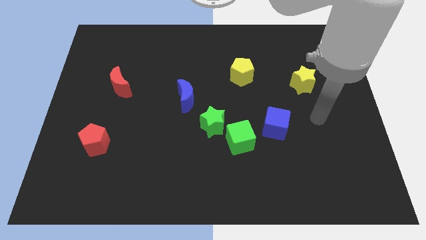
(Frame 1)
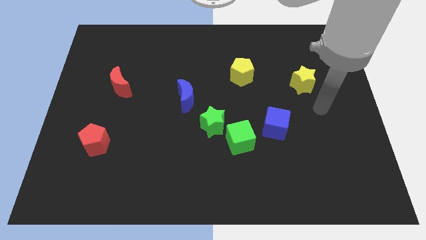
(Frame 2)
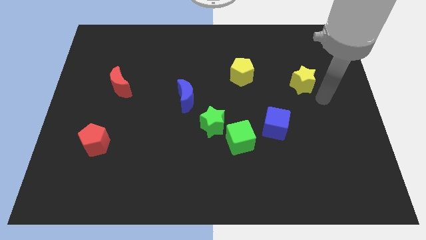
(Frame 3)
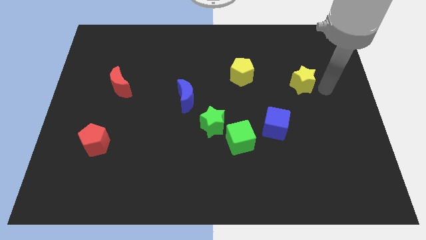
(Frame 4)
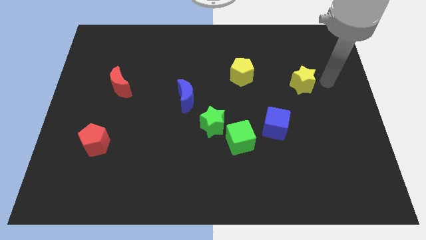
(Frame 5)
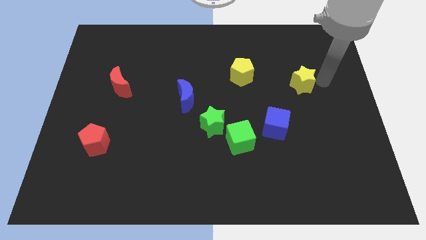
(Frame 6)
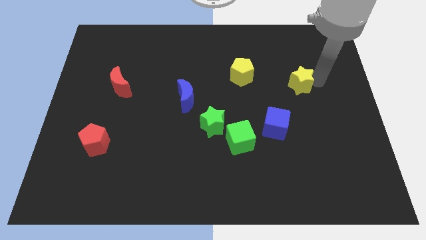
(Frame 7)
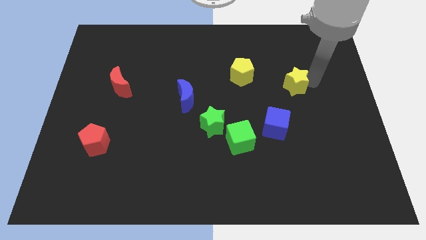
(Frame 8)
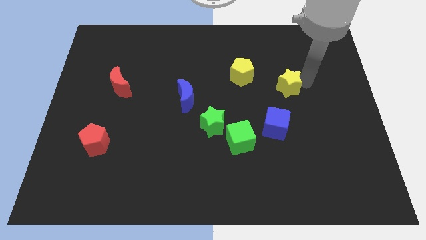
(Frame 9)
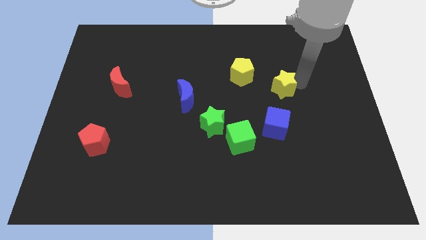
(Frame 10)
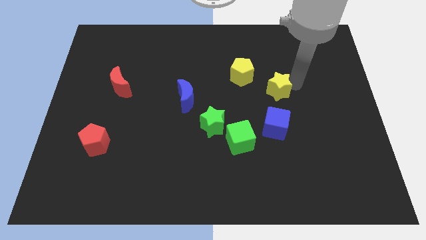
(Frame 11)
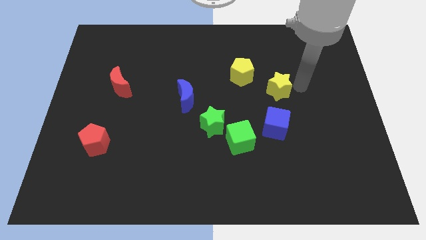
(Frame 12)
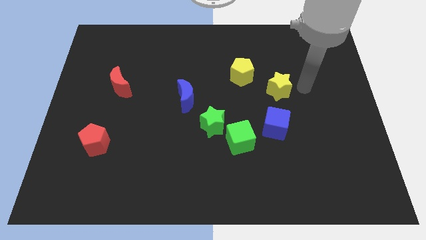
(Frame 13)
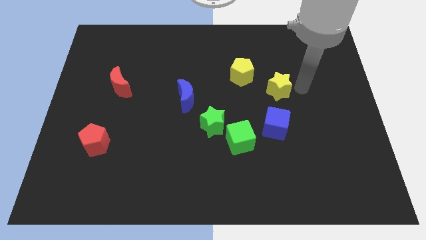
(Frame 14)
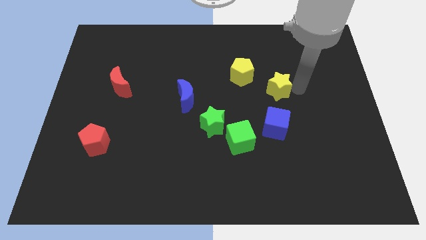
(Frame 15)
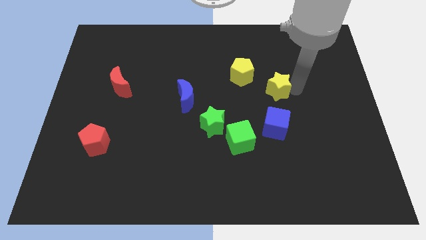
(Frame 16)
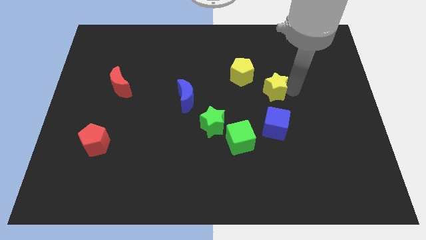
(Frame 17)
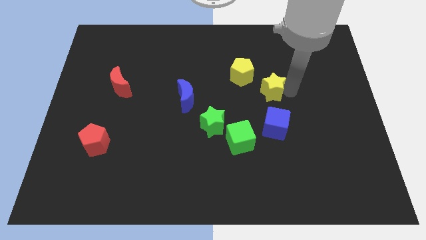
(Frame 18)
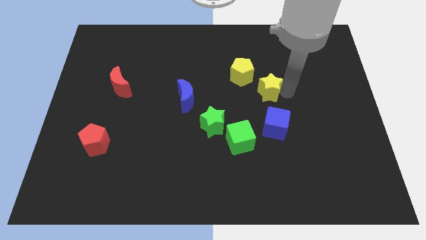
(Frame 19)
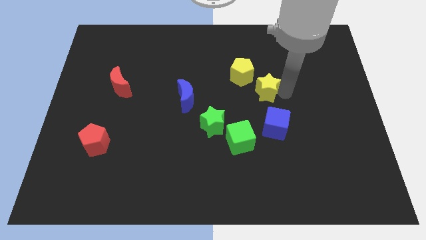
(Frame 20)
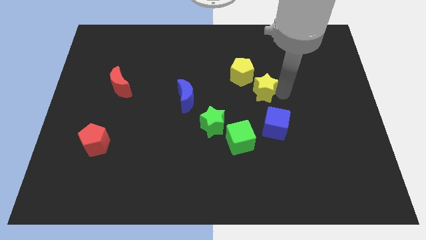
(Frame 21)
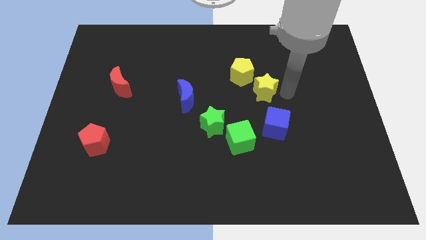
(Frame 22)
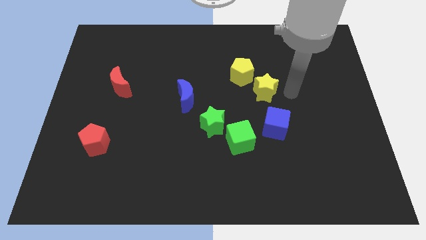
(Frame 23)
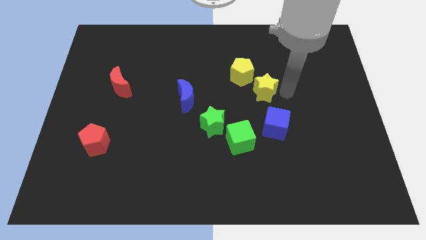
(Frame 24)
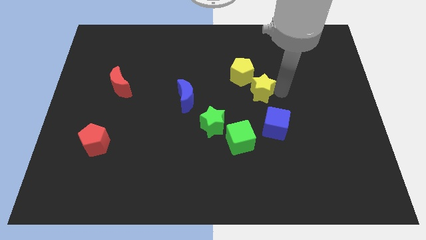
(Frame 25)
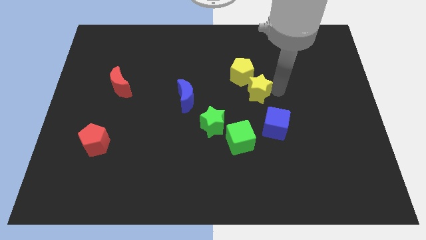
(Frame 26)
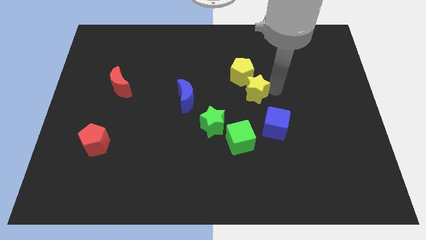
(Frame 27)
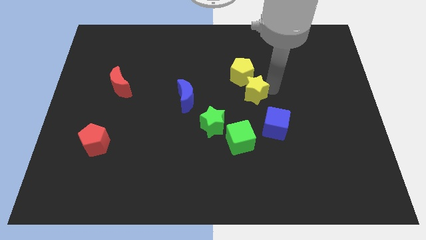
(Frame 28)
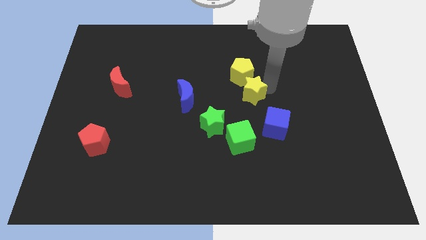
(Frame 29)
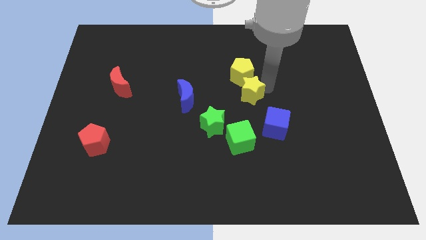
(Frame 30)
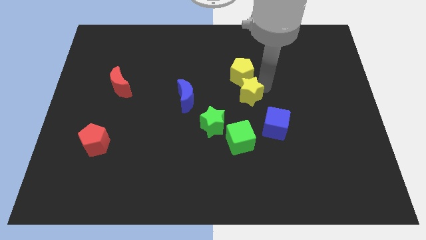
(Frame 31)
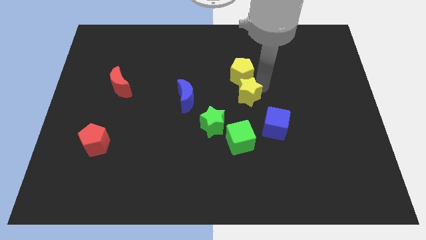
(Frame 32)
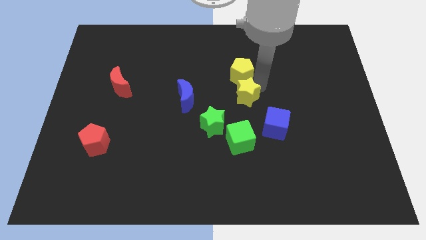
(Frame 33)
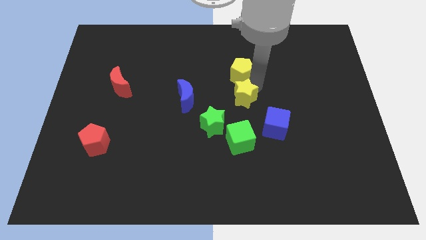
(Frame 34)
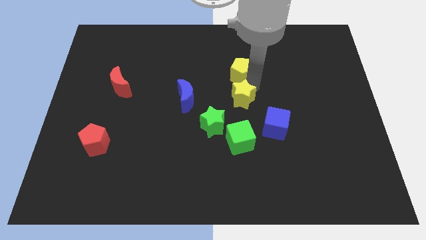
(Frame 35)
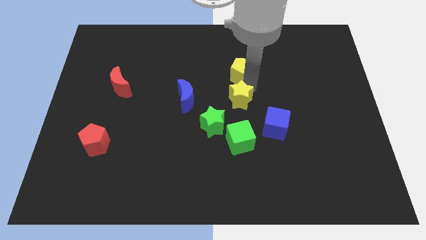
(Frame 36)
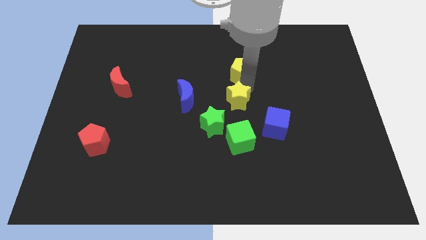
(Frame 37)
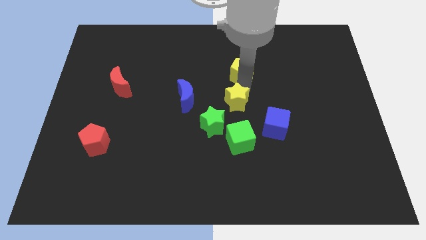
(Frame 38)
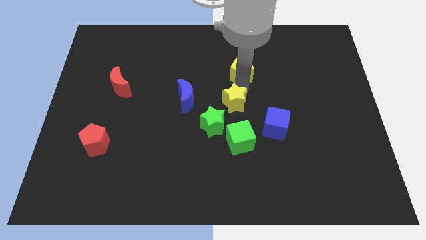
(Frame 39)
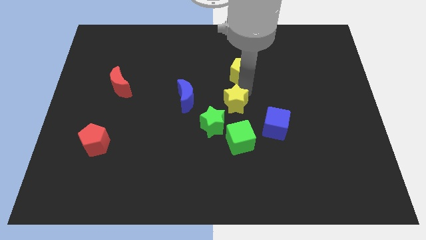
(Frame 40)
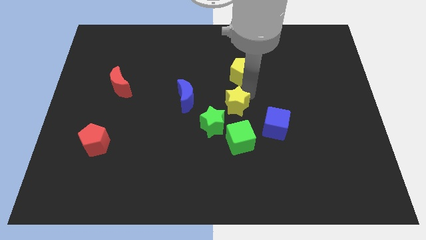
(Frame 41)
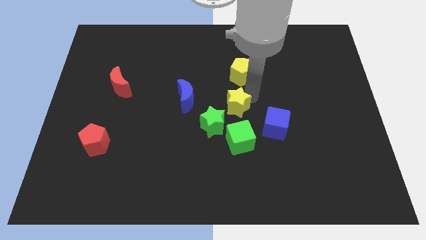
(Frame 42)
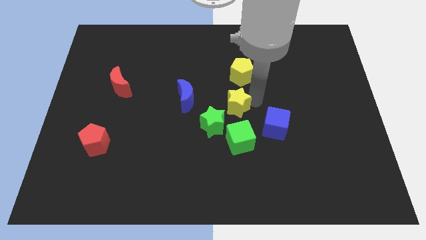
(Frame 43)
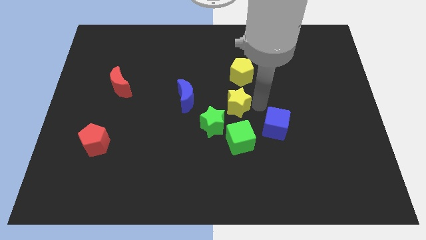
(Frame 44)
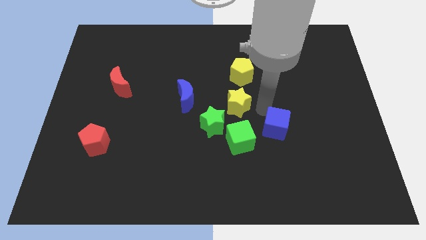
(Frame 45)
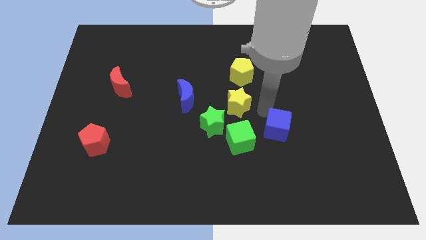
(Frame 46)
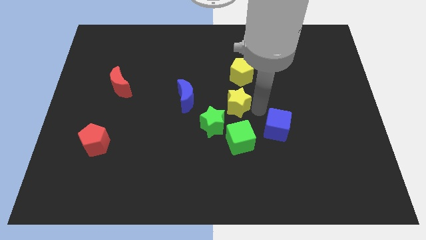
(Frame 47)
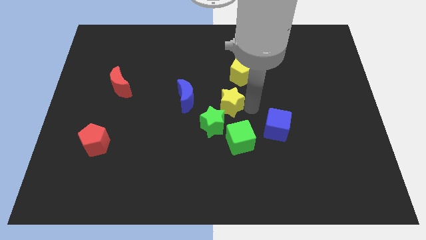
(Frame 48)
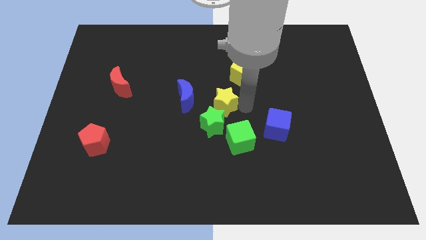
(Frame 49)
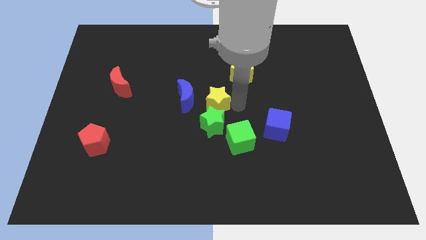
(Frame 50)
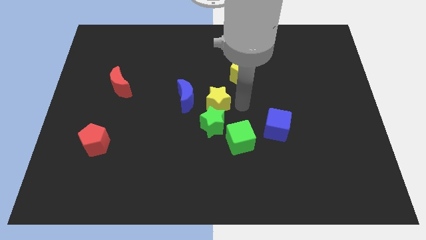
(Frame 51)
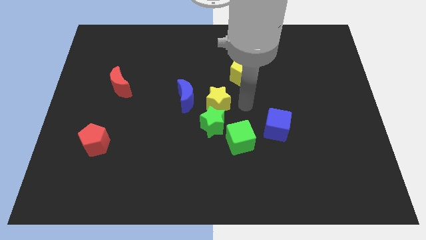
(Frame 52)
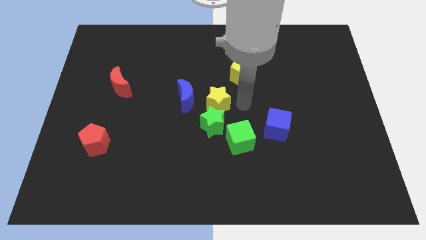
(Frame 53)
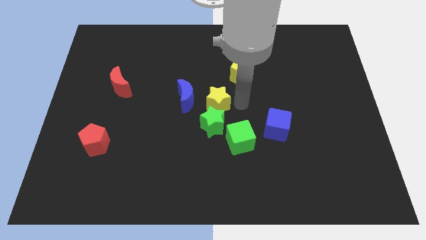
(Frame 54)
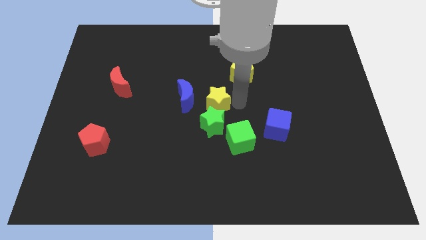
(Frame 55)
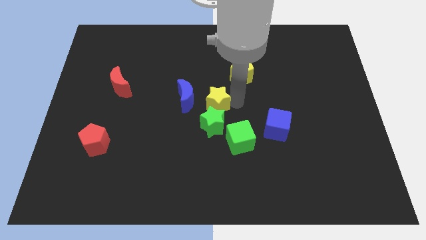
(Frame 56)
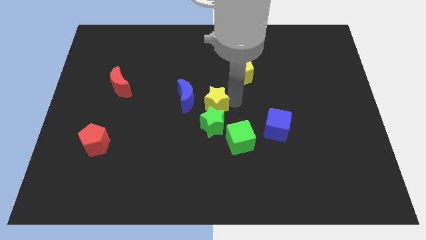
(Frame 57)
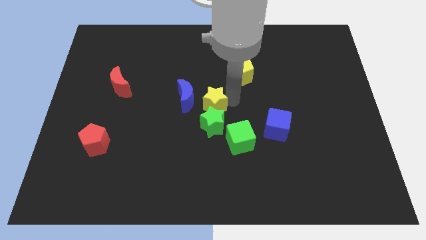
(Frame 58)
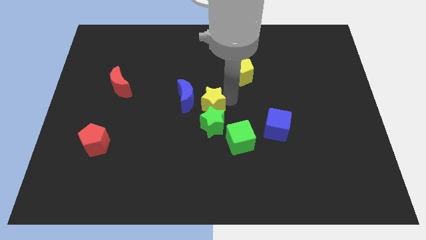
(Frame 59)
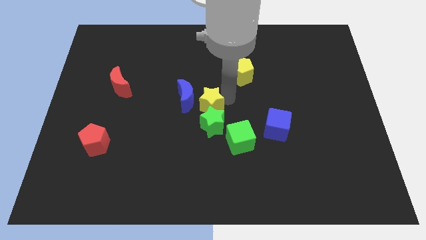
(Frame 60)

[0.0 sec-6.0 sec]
push the yellow star next to the blue moon

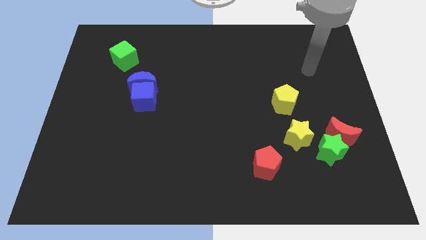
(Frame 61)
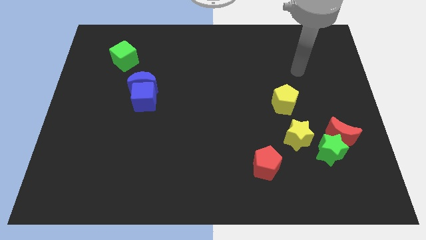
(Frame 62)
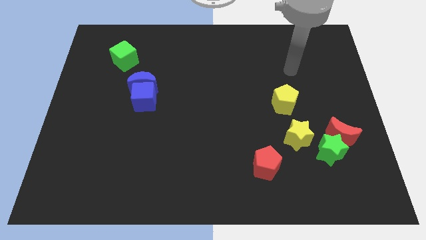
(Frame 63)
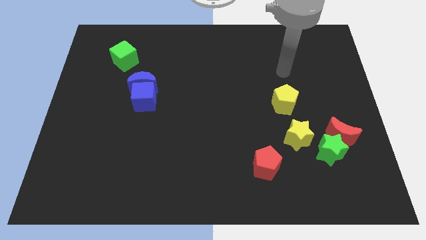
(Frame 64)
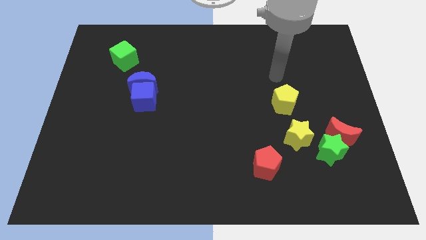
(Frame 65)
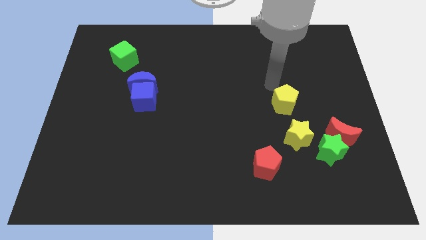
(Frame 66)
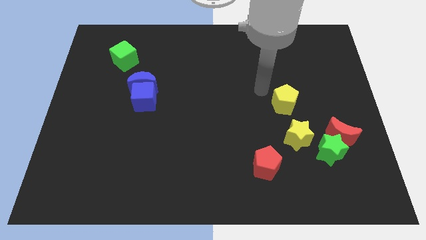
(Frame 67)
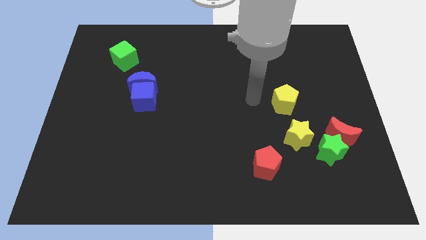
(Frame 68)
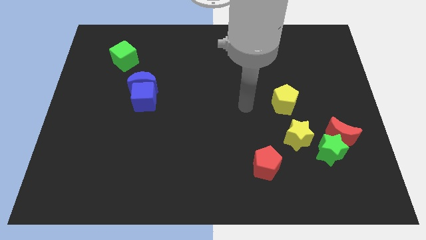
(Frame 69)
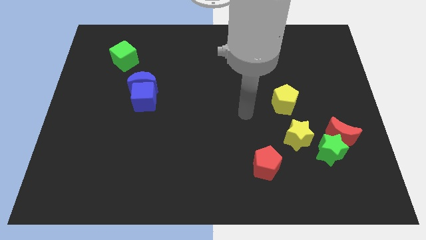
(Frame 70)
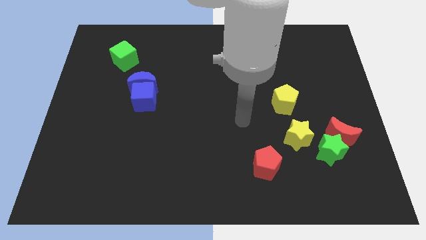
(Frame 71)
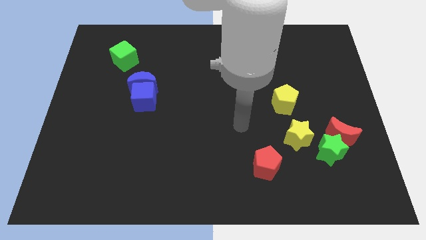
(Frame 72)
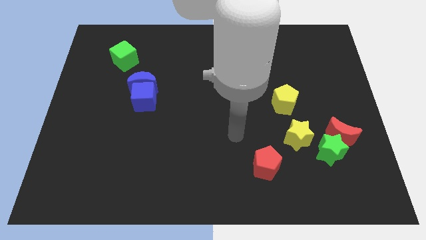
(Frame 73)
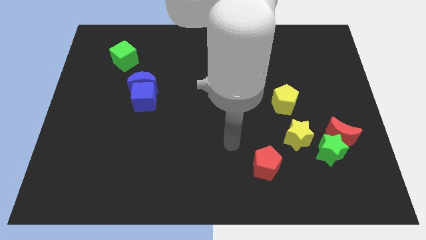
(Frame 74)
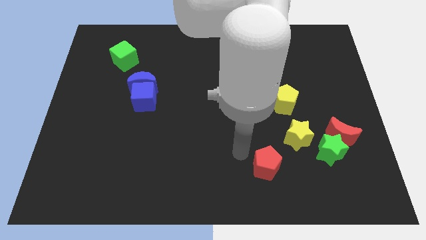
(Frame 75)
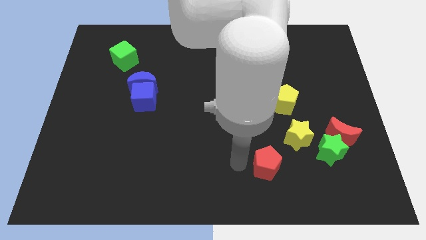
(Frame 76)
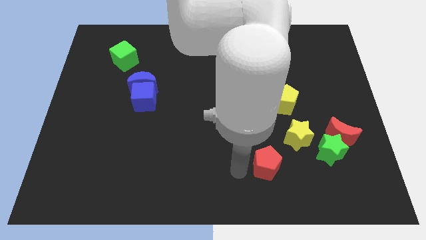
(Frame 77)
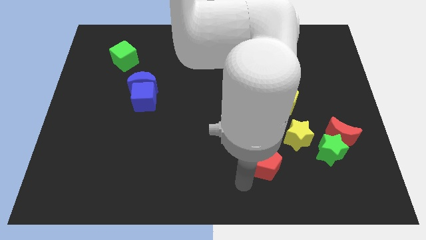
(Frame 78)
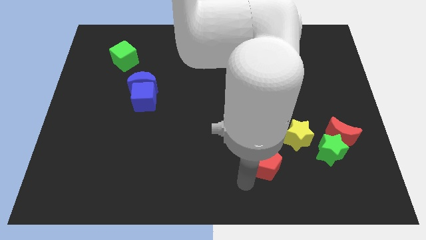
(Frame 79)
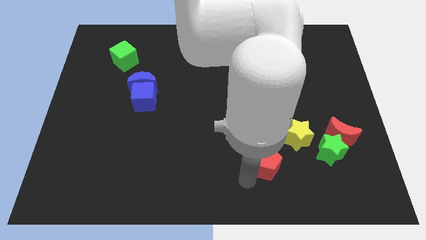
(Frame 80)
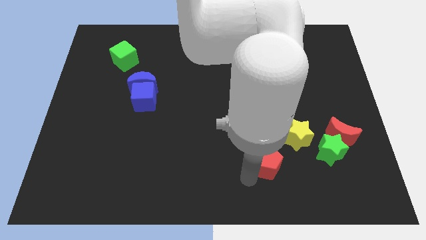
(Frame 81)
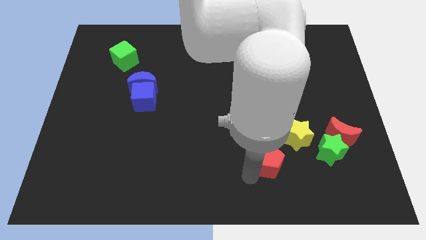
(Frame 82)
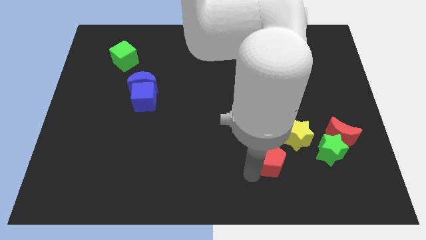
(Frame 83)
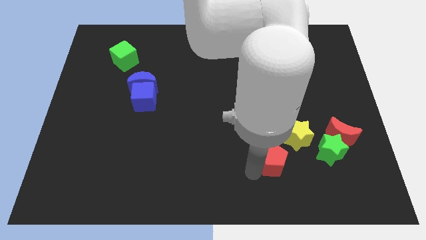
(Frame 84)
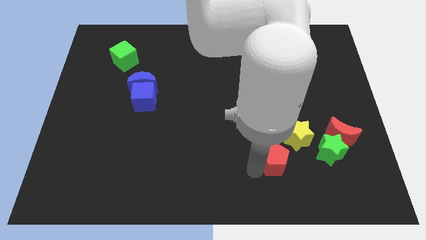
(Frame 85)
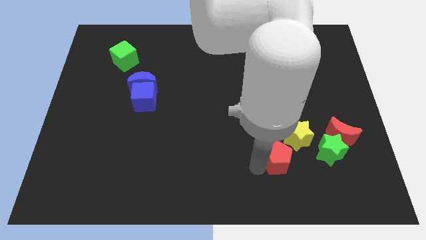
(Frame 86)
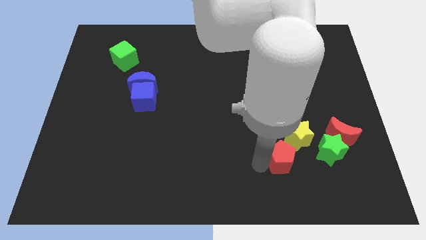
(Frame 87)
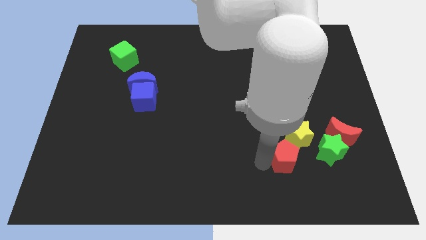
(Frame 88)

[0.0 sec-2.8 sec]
push the red pentagon to the yellow star
